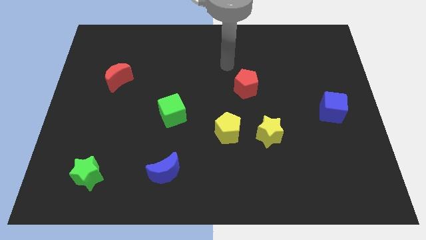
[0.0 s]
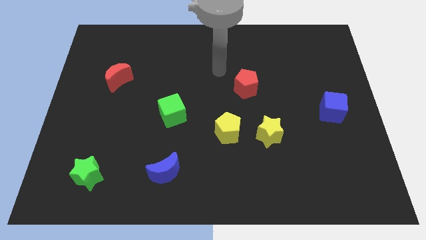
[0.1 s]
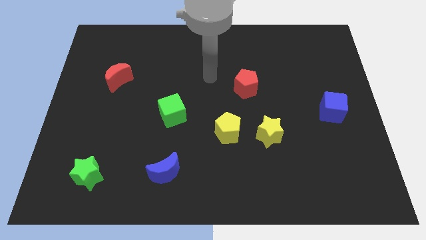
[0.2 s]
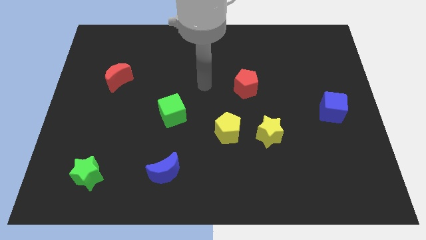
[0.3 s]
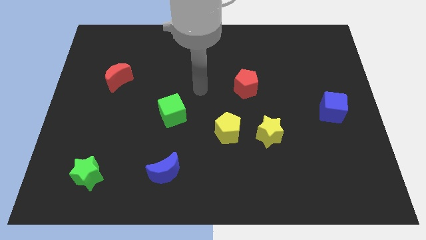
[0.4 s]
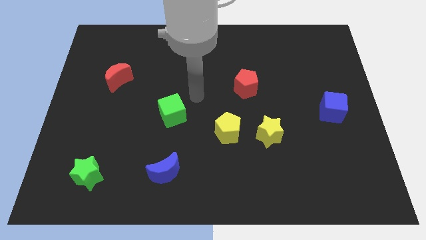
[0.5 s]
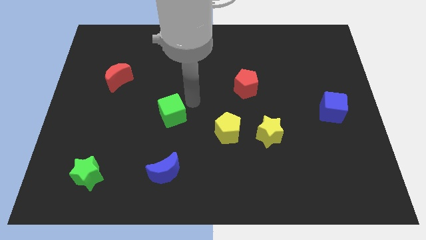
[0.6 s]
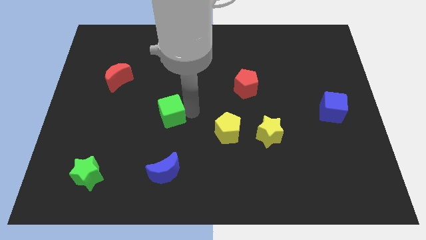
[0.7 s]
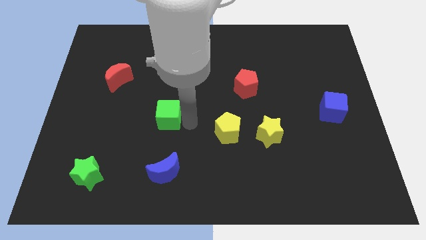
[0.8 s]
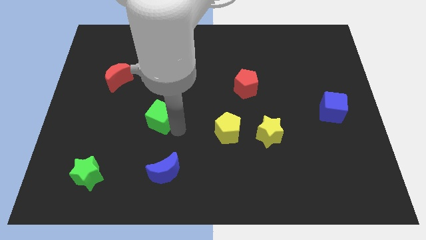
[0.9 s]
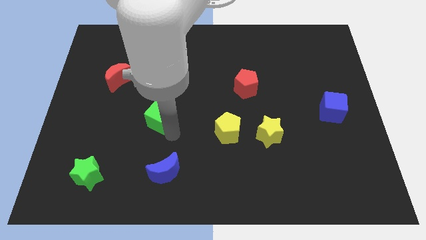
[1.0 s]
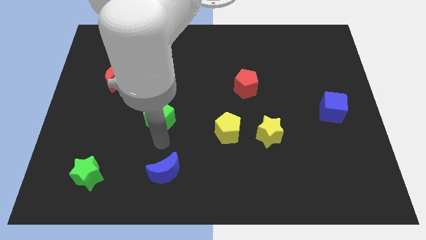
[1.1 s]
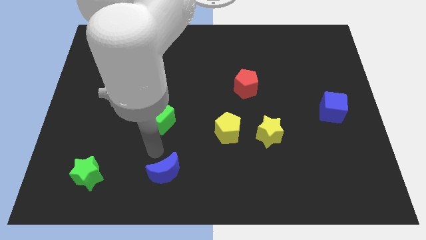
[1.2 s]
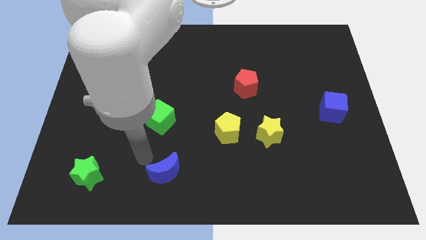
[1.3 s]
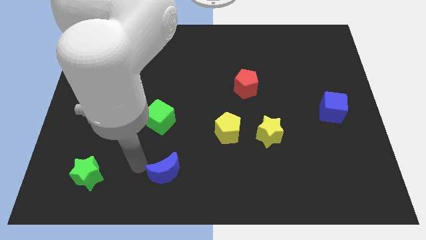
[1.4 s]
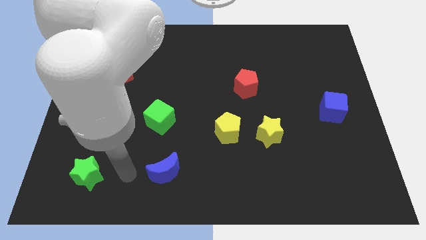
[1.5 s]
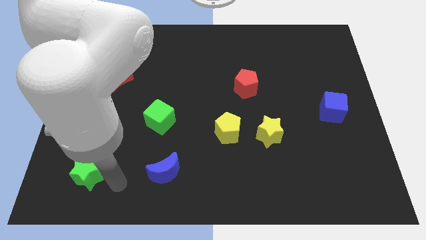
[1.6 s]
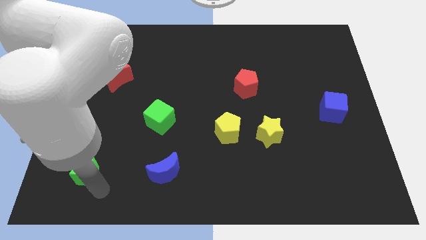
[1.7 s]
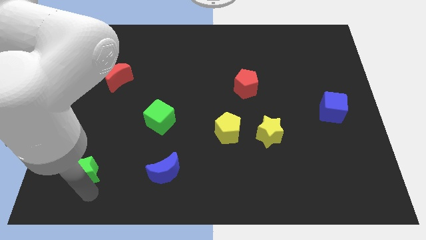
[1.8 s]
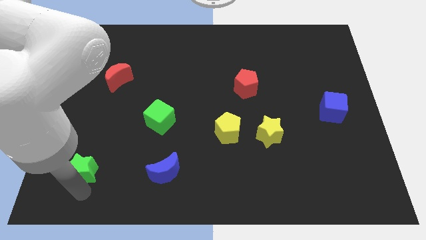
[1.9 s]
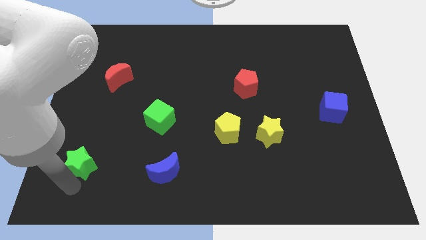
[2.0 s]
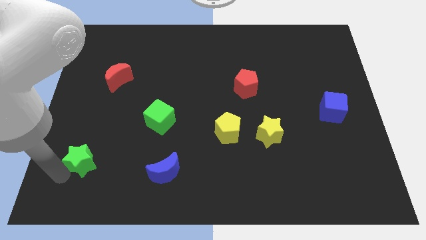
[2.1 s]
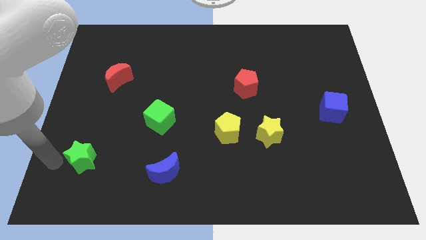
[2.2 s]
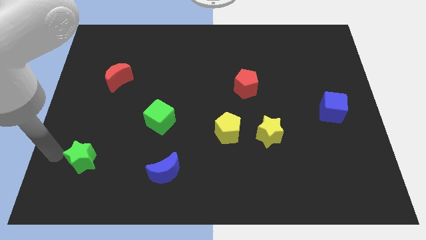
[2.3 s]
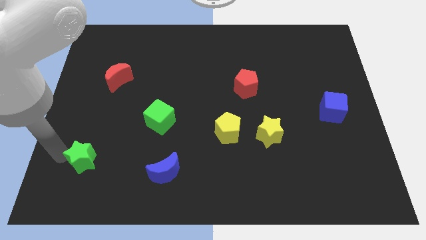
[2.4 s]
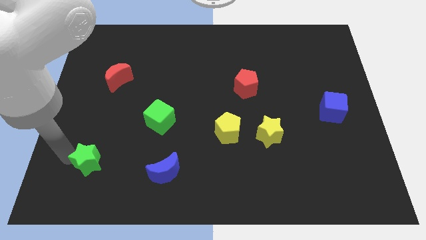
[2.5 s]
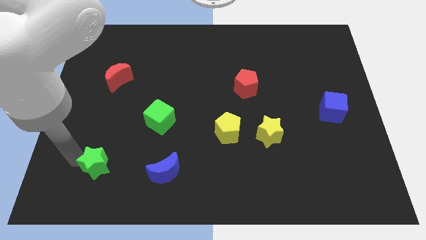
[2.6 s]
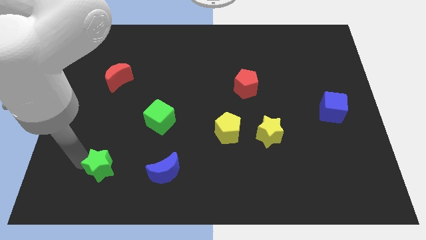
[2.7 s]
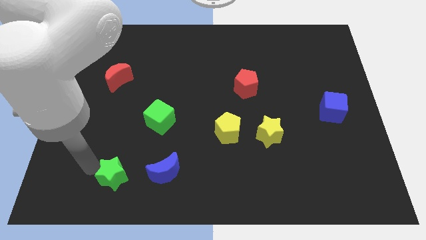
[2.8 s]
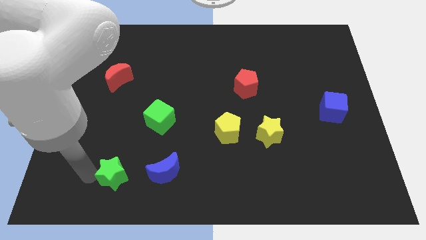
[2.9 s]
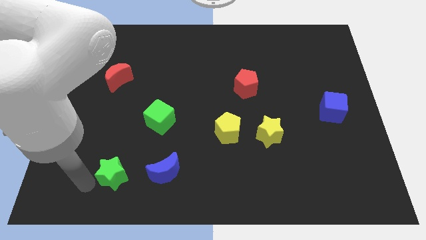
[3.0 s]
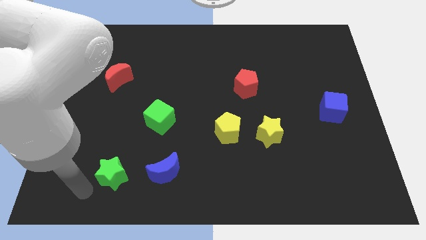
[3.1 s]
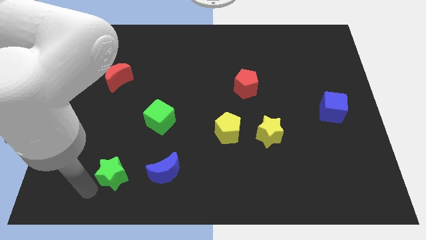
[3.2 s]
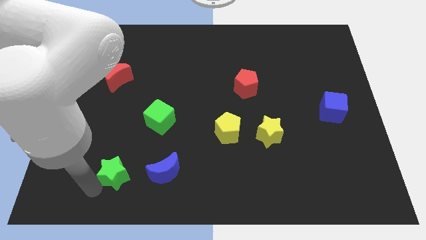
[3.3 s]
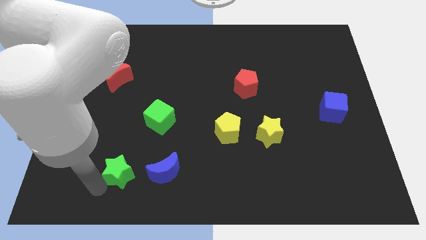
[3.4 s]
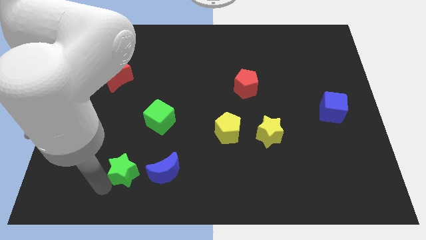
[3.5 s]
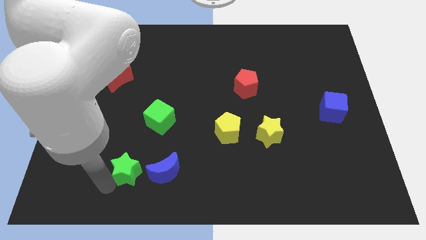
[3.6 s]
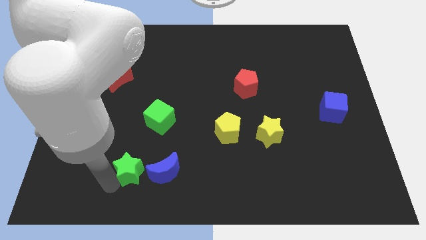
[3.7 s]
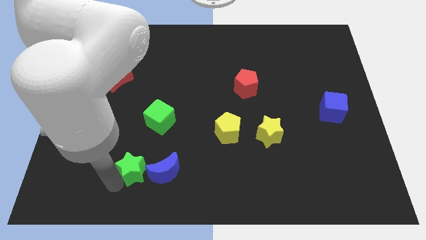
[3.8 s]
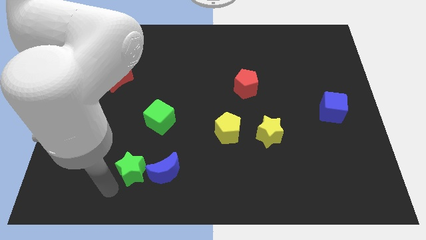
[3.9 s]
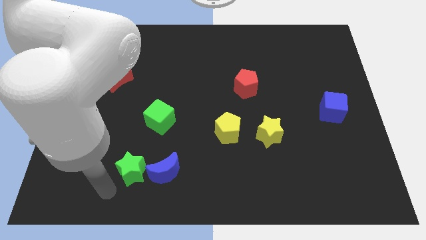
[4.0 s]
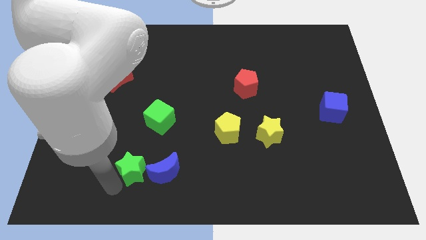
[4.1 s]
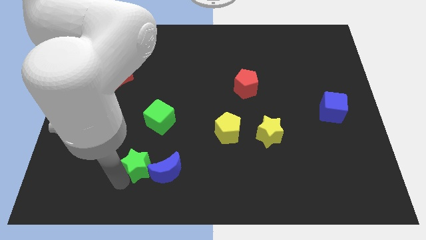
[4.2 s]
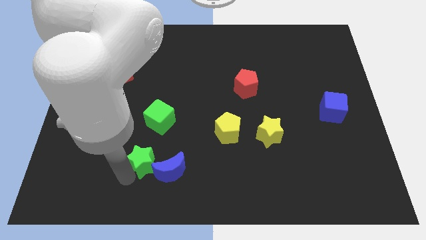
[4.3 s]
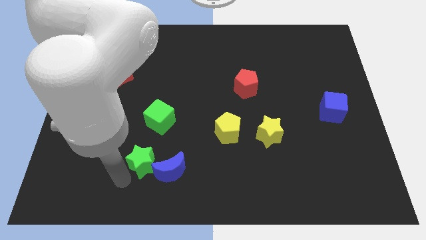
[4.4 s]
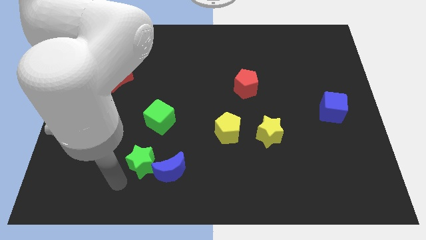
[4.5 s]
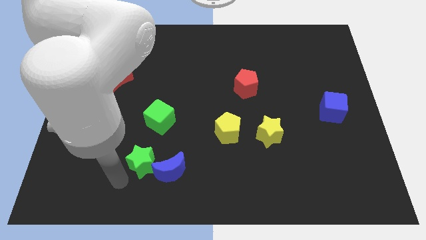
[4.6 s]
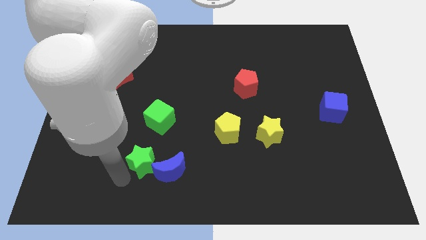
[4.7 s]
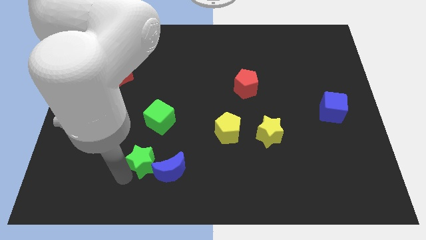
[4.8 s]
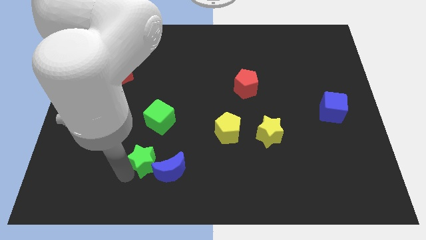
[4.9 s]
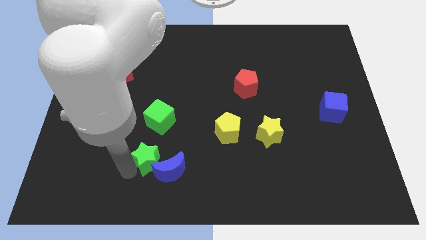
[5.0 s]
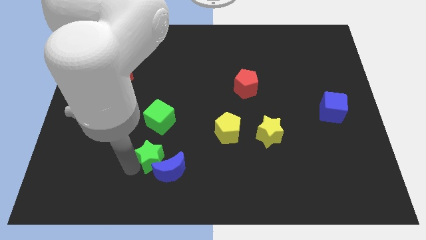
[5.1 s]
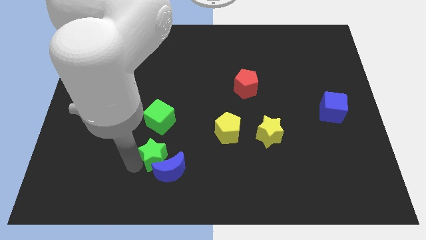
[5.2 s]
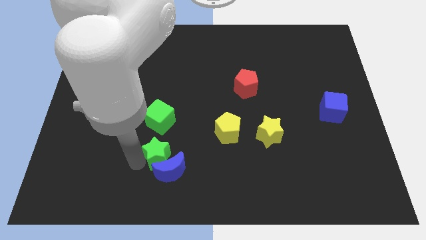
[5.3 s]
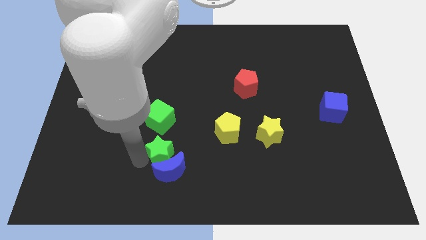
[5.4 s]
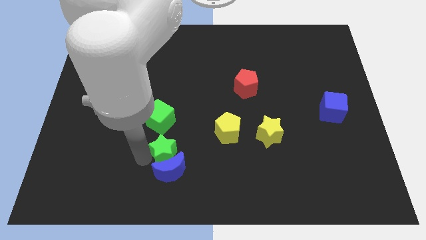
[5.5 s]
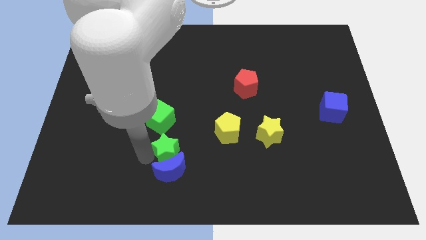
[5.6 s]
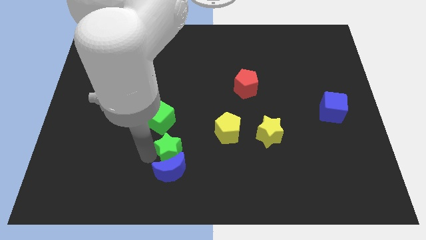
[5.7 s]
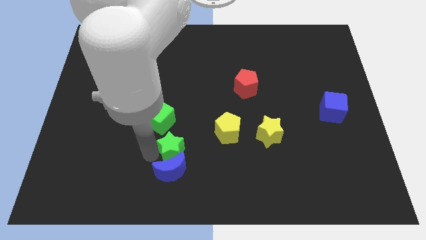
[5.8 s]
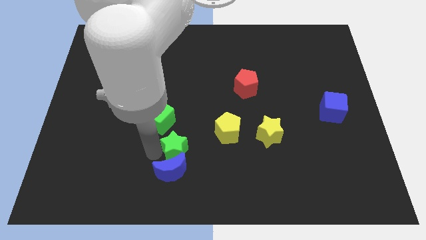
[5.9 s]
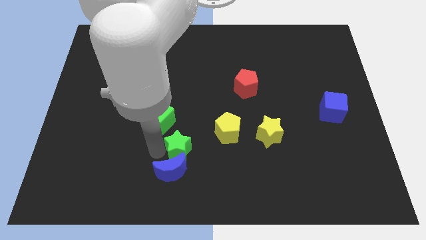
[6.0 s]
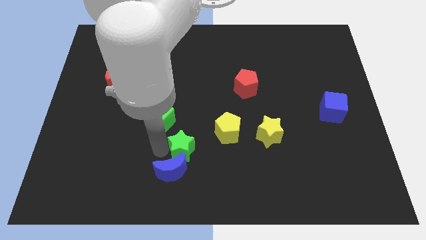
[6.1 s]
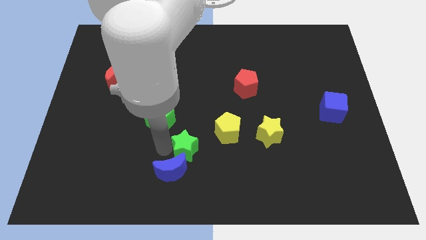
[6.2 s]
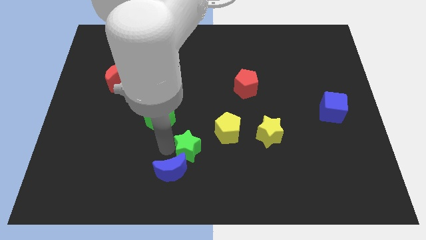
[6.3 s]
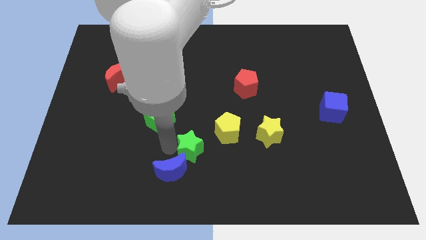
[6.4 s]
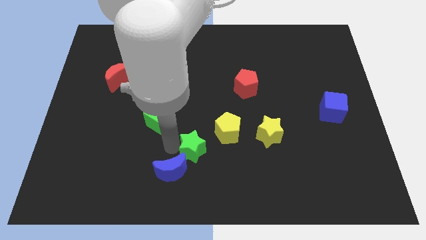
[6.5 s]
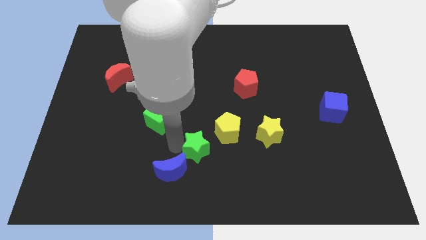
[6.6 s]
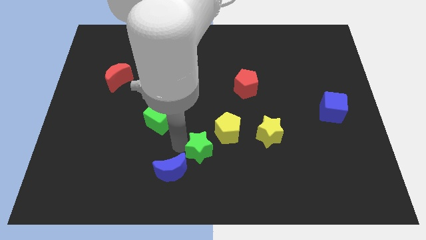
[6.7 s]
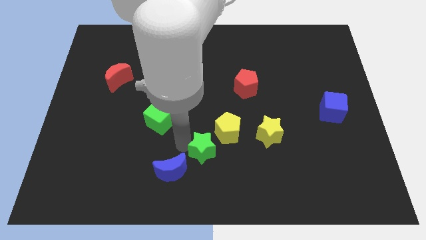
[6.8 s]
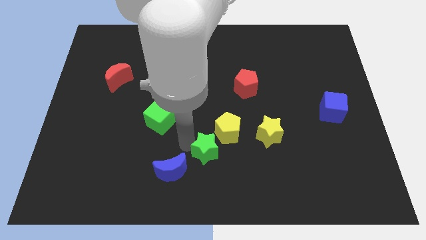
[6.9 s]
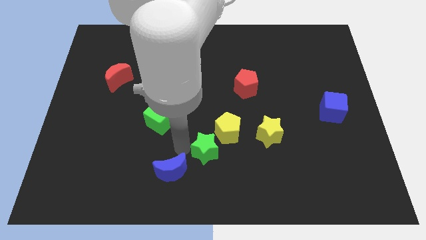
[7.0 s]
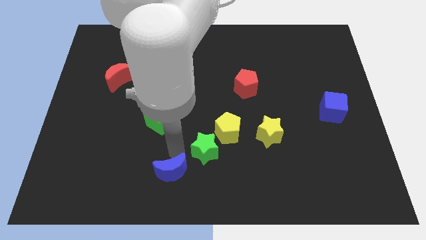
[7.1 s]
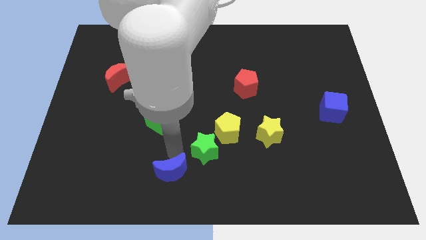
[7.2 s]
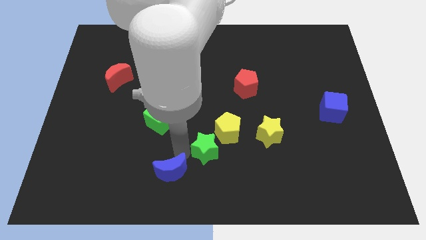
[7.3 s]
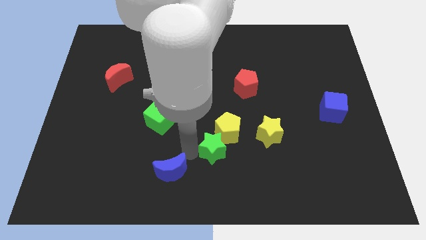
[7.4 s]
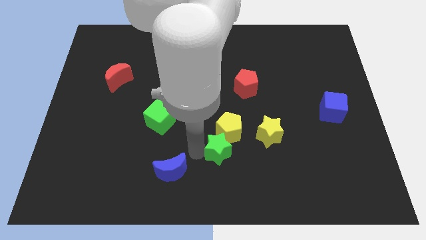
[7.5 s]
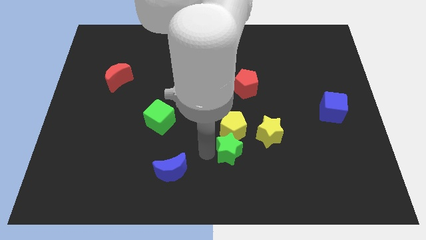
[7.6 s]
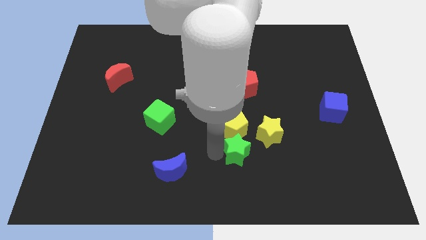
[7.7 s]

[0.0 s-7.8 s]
slide the green star to the bottom right side of the yellow pentagon
